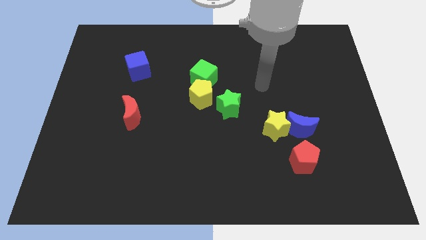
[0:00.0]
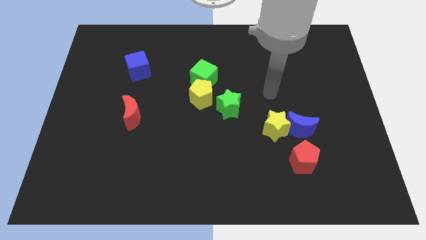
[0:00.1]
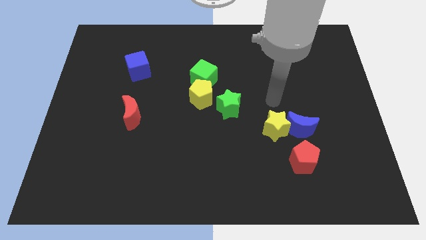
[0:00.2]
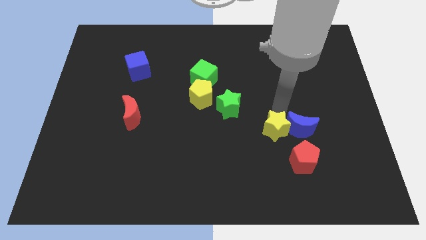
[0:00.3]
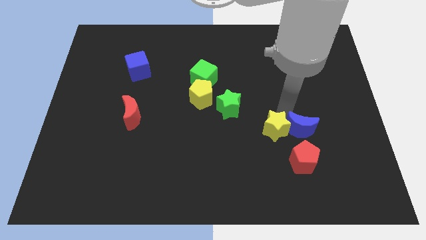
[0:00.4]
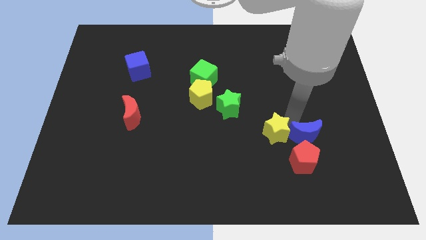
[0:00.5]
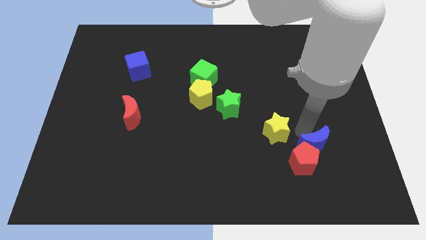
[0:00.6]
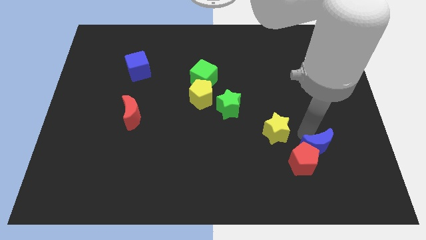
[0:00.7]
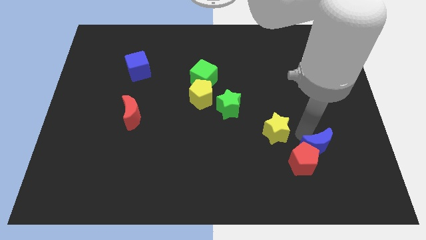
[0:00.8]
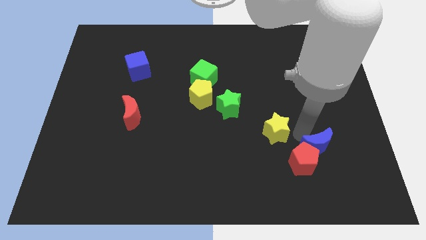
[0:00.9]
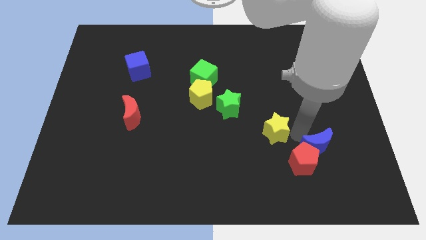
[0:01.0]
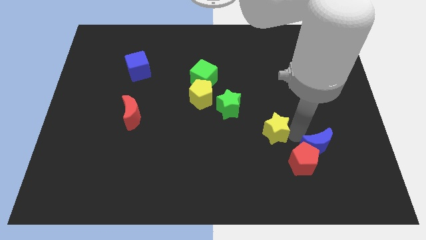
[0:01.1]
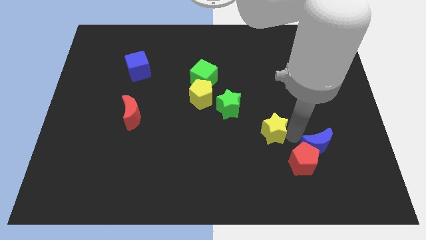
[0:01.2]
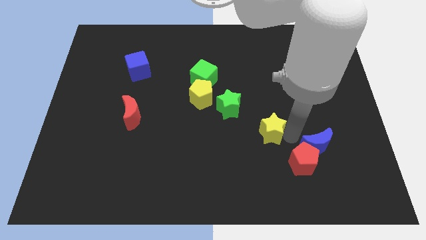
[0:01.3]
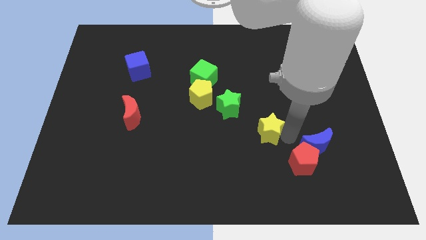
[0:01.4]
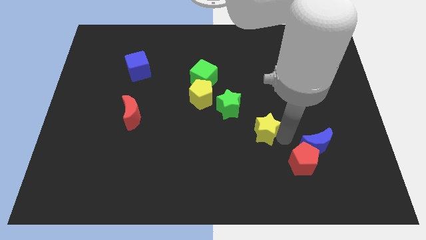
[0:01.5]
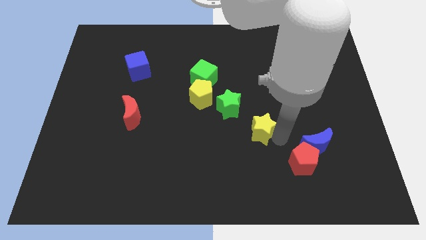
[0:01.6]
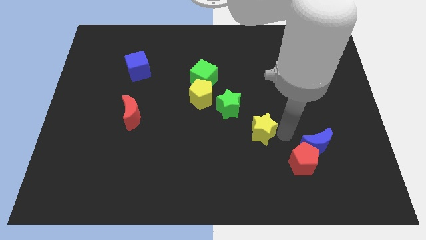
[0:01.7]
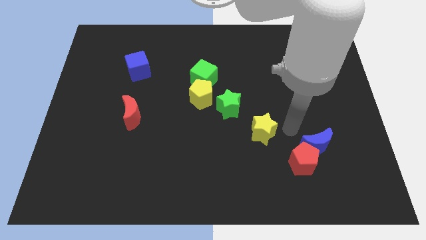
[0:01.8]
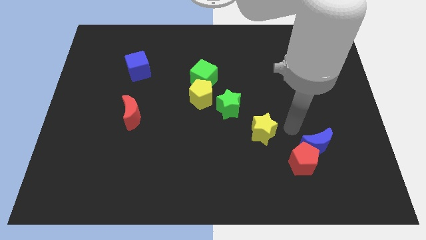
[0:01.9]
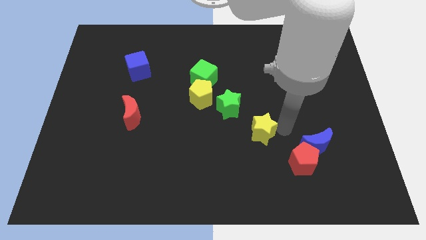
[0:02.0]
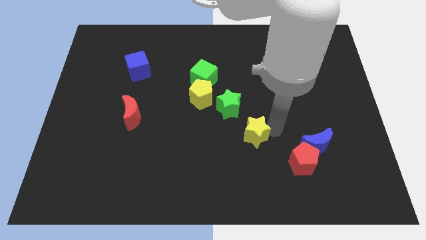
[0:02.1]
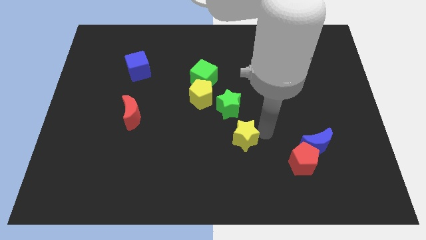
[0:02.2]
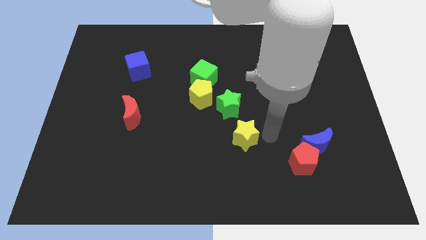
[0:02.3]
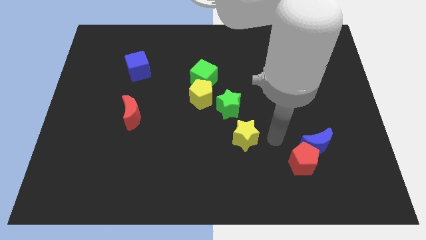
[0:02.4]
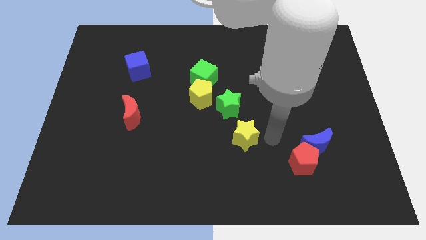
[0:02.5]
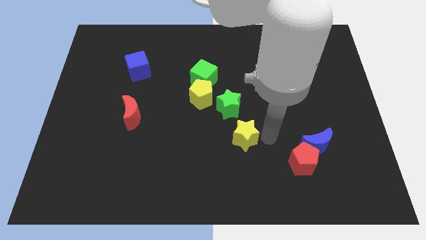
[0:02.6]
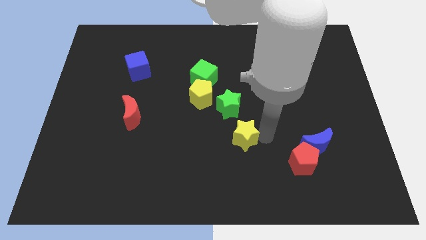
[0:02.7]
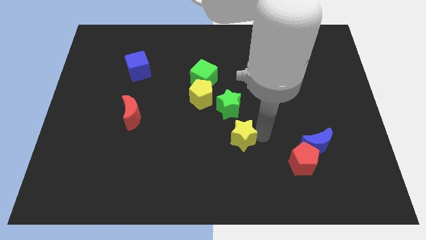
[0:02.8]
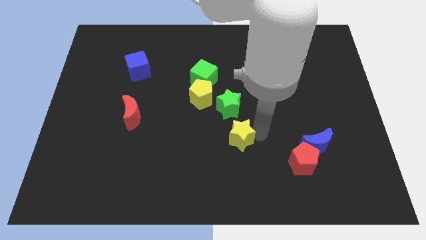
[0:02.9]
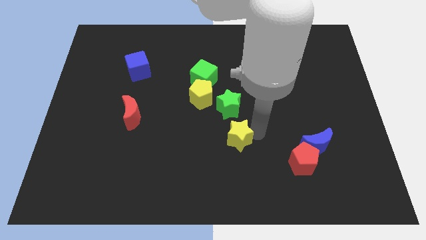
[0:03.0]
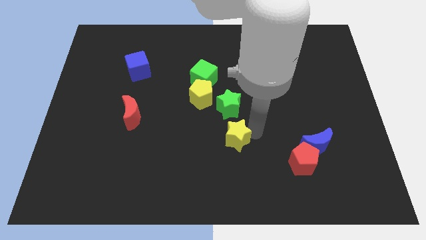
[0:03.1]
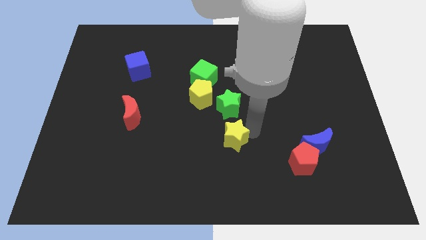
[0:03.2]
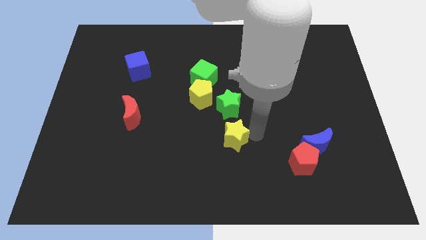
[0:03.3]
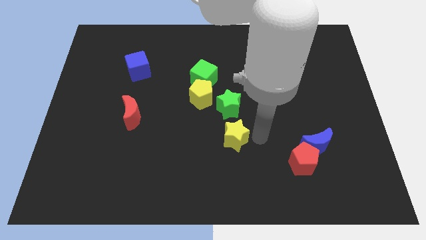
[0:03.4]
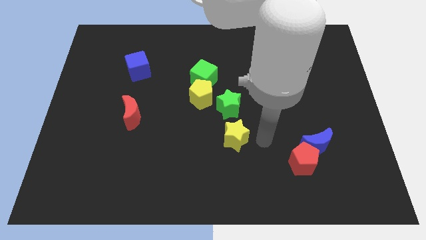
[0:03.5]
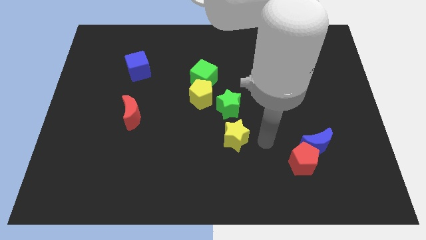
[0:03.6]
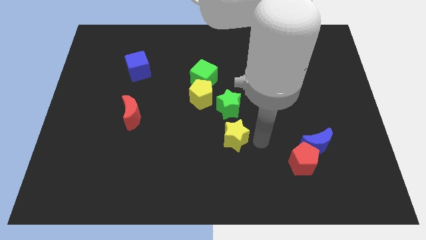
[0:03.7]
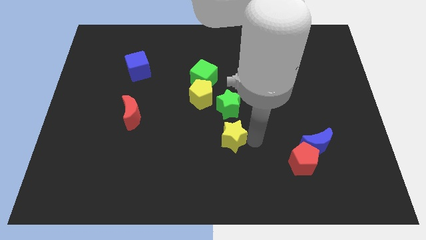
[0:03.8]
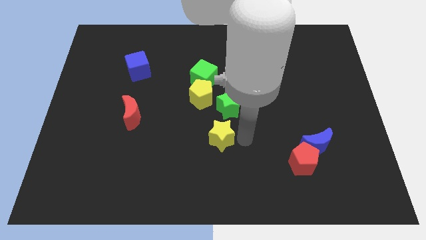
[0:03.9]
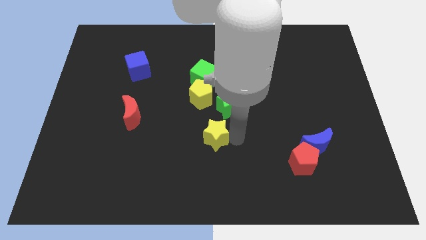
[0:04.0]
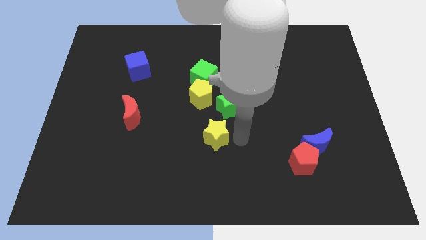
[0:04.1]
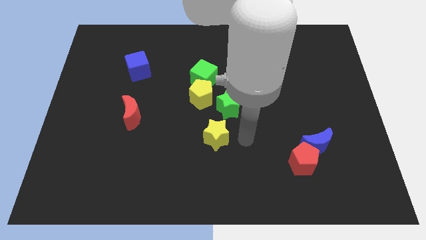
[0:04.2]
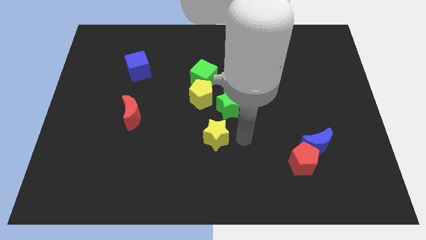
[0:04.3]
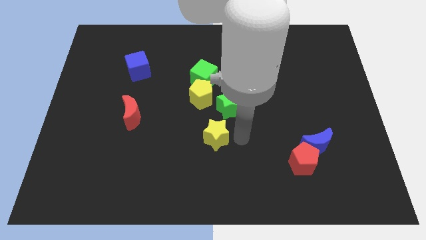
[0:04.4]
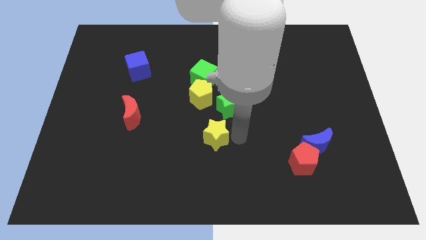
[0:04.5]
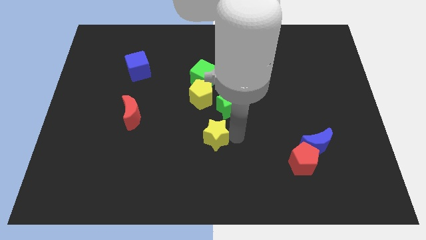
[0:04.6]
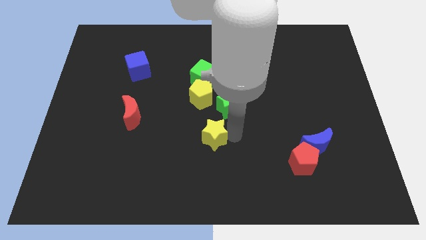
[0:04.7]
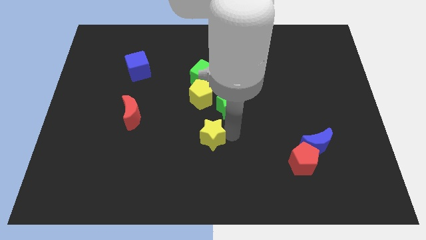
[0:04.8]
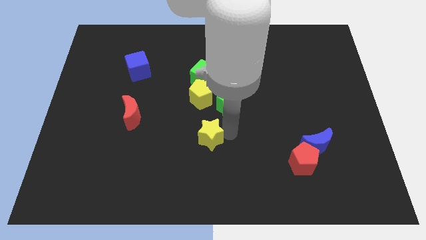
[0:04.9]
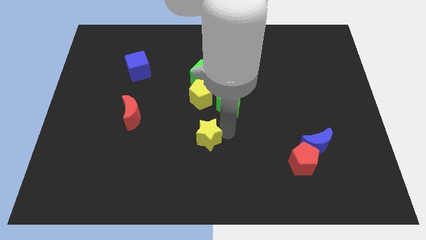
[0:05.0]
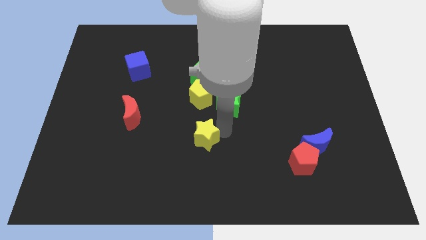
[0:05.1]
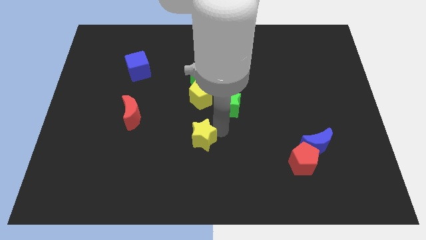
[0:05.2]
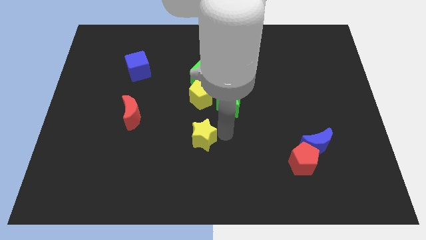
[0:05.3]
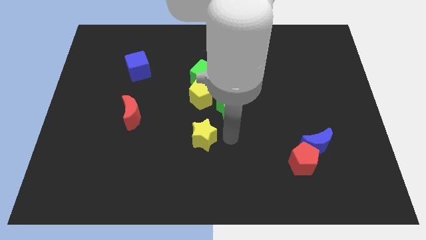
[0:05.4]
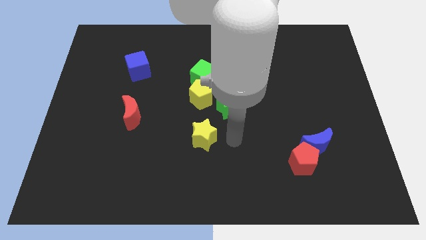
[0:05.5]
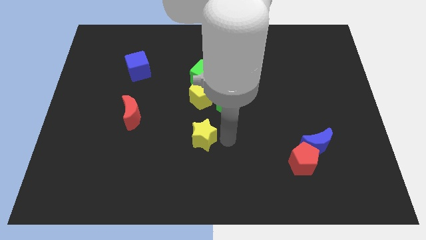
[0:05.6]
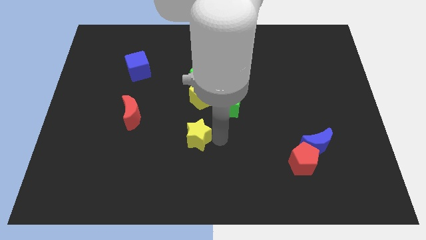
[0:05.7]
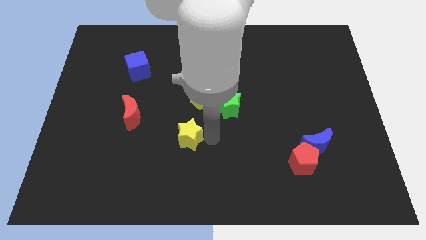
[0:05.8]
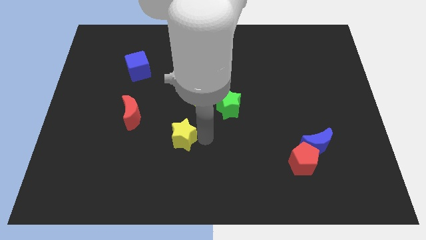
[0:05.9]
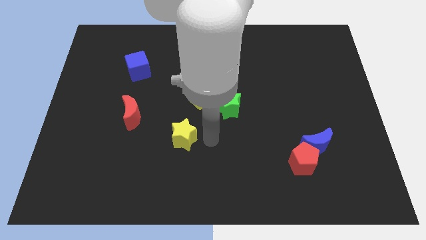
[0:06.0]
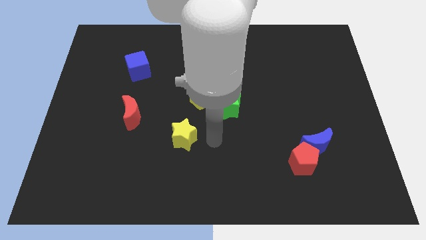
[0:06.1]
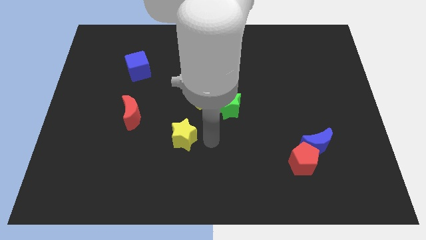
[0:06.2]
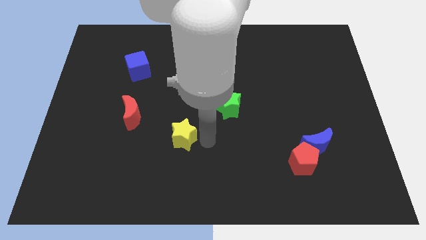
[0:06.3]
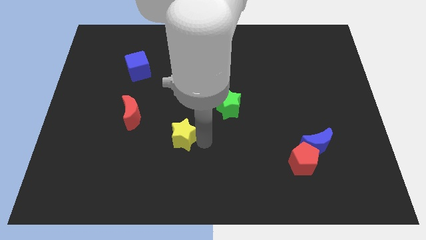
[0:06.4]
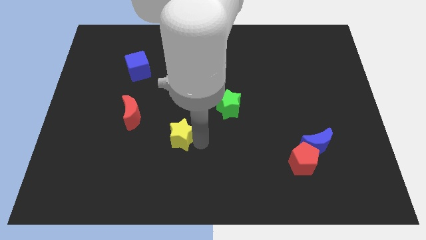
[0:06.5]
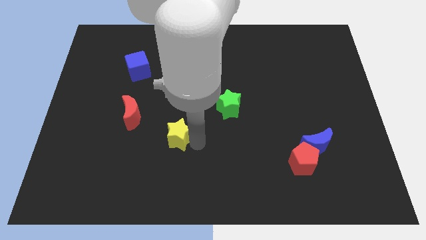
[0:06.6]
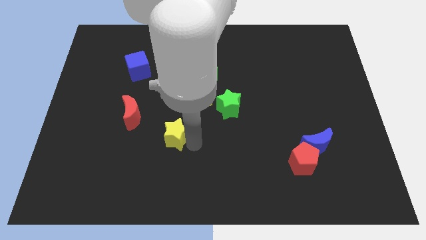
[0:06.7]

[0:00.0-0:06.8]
move the yellow star diagonally down and to the right of the red moon

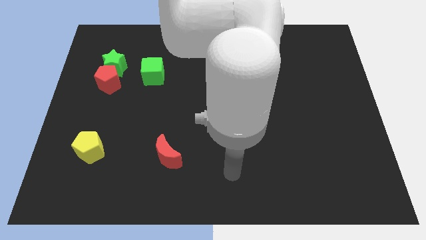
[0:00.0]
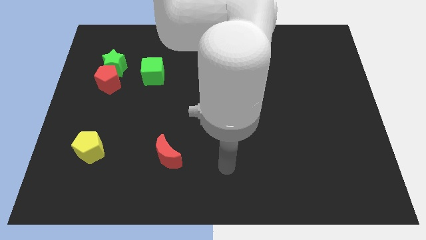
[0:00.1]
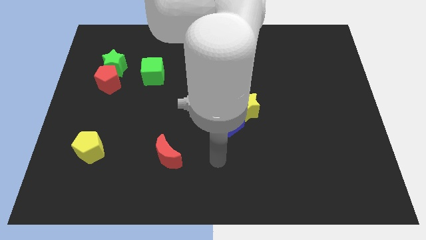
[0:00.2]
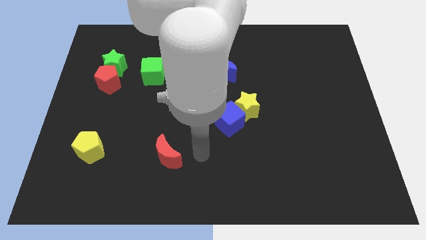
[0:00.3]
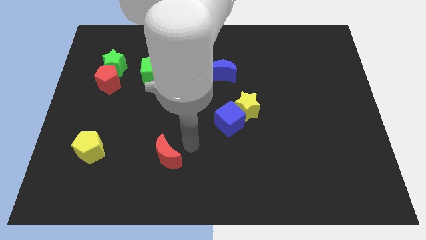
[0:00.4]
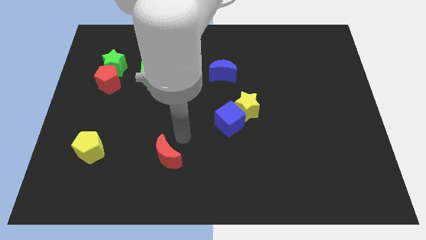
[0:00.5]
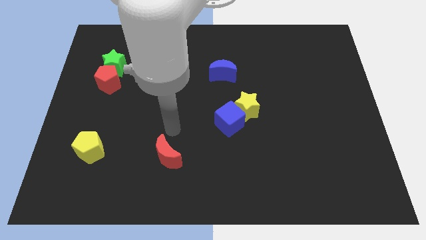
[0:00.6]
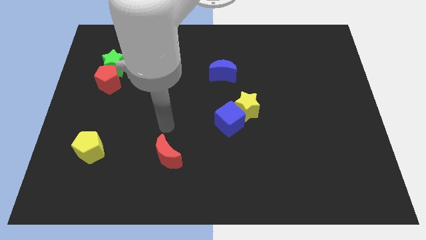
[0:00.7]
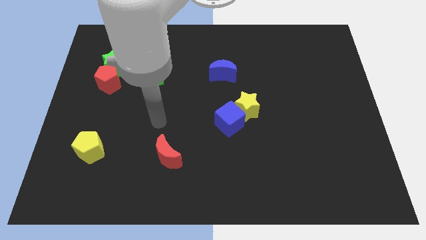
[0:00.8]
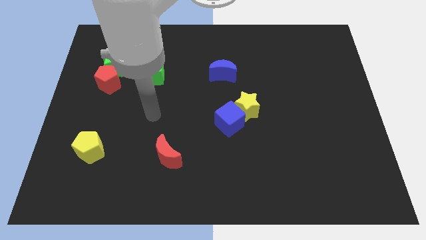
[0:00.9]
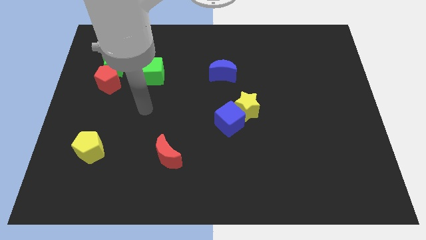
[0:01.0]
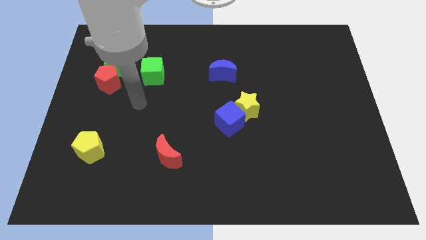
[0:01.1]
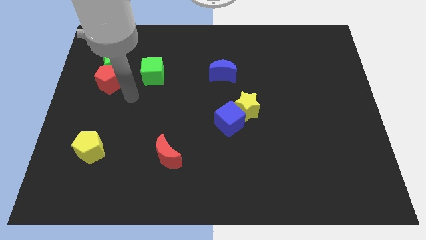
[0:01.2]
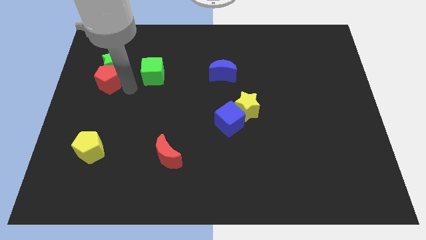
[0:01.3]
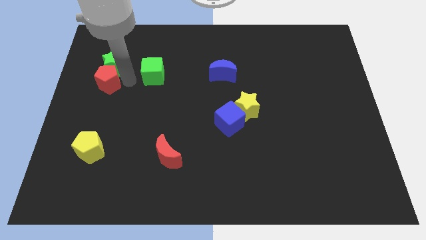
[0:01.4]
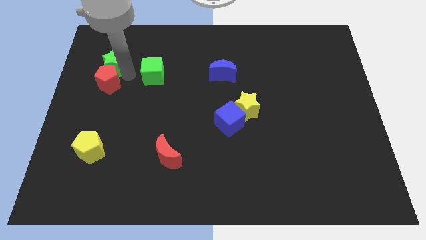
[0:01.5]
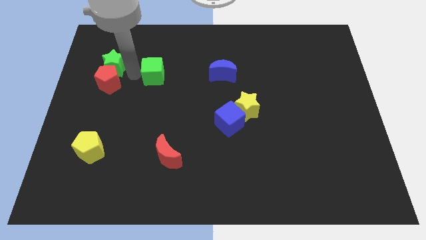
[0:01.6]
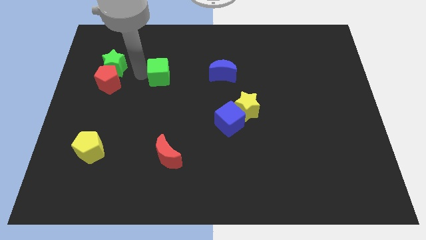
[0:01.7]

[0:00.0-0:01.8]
slide the green cube just left of the blue moon
